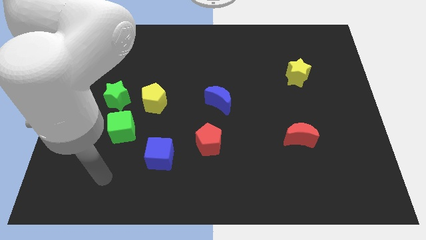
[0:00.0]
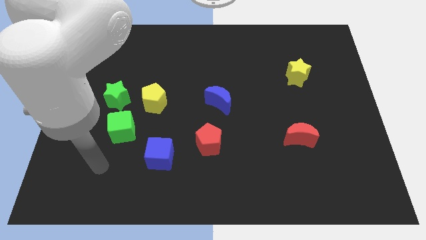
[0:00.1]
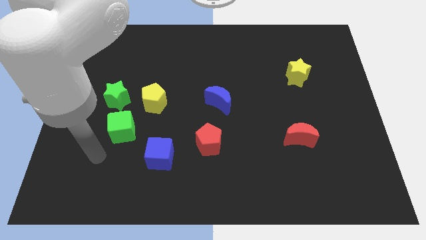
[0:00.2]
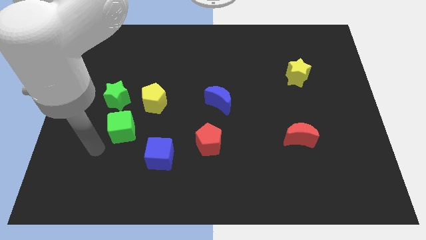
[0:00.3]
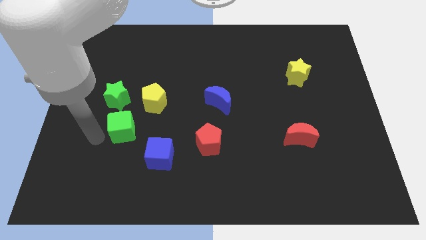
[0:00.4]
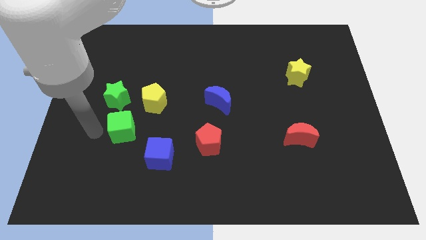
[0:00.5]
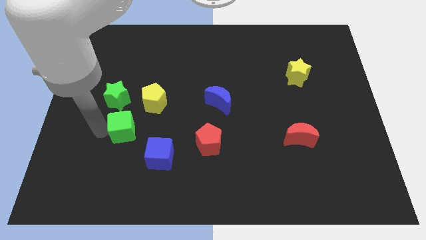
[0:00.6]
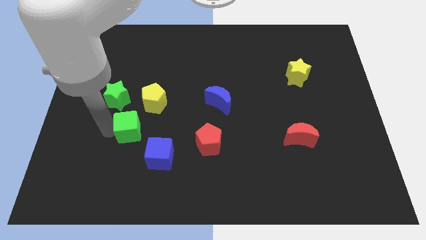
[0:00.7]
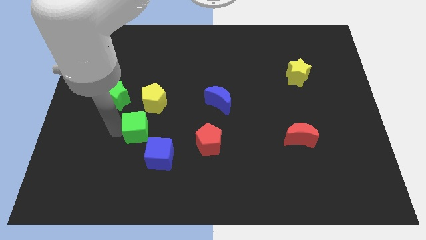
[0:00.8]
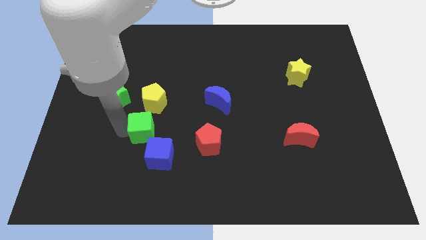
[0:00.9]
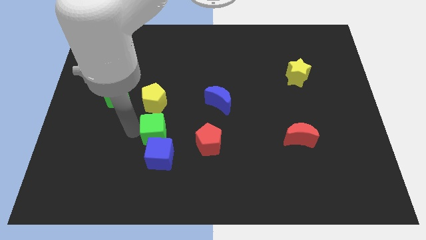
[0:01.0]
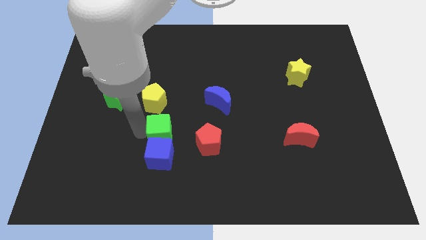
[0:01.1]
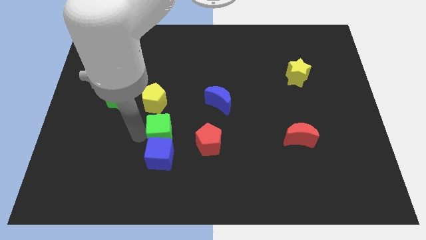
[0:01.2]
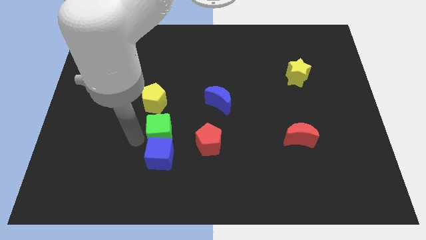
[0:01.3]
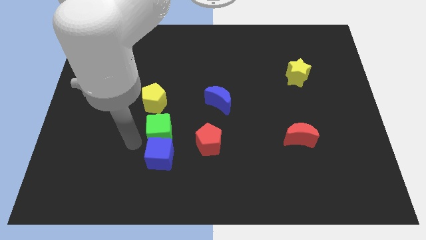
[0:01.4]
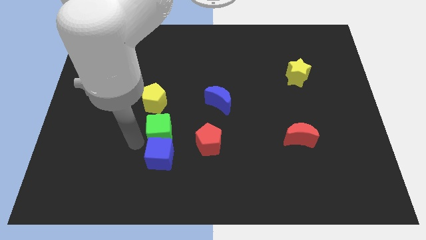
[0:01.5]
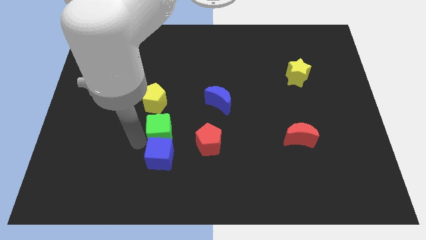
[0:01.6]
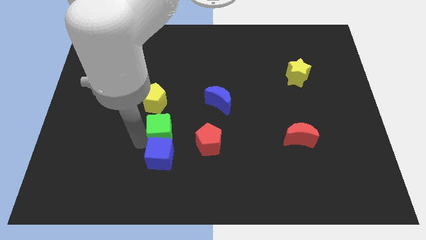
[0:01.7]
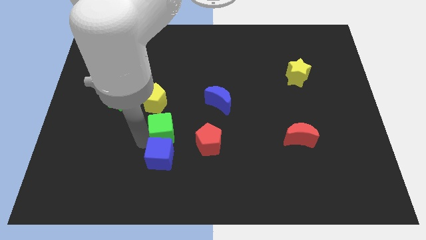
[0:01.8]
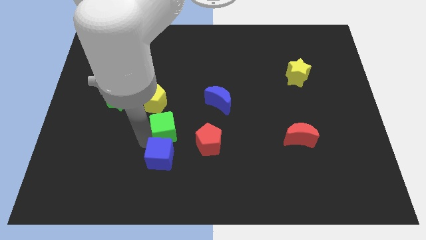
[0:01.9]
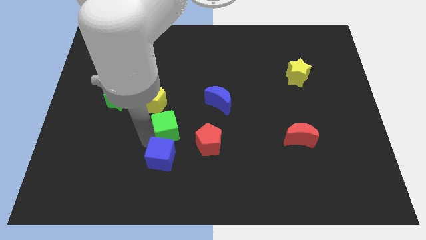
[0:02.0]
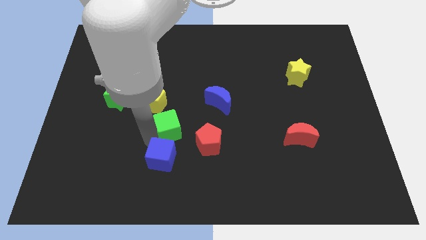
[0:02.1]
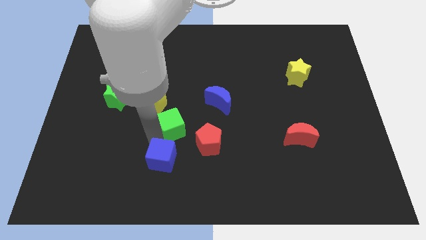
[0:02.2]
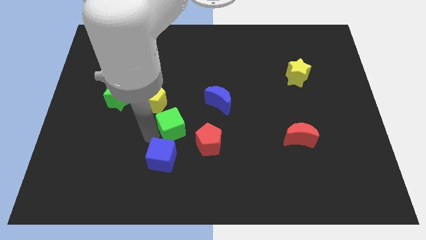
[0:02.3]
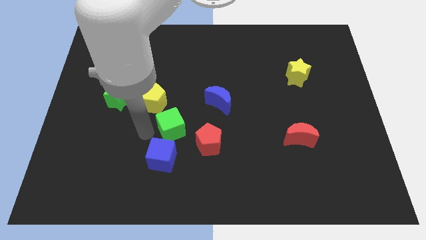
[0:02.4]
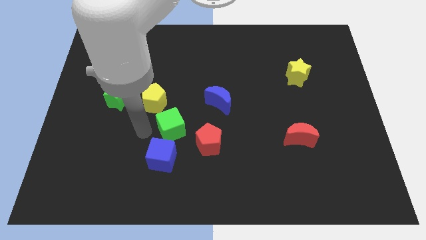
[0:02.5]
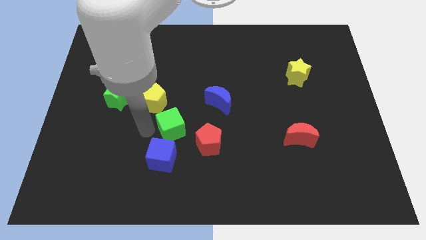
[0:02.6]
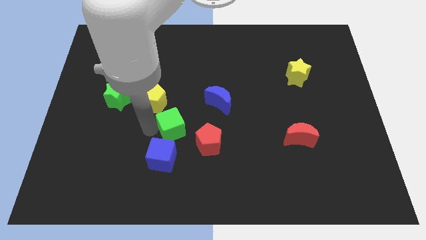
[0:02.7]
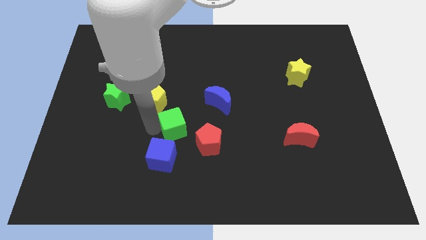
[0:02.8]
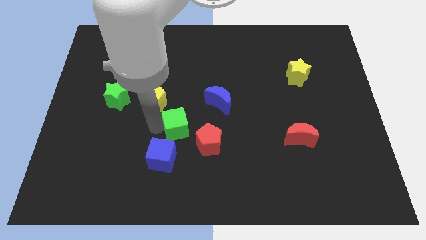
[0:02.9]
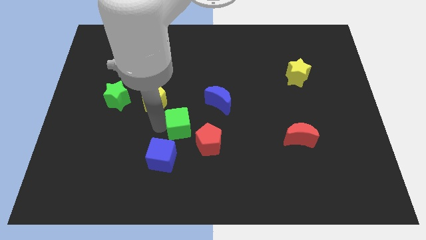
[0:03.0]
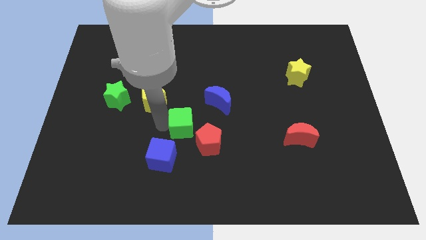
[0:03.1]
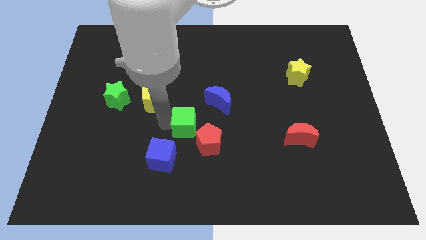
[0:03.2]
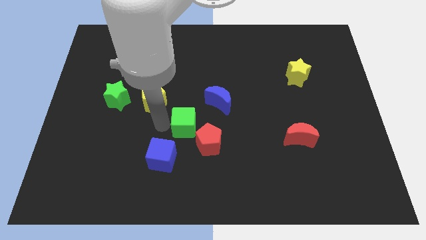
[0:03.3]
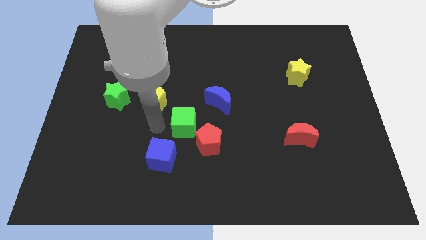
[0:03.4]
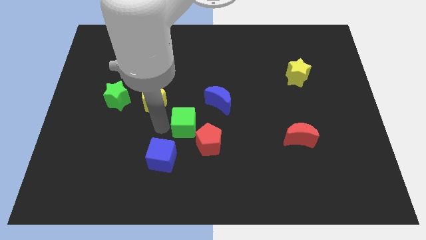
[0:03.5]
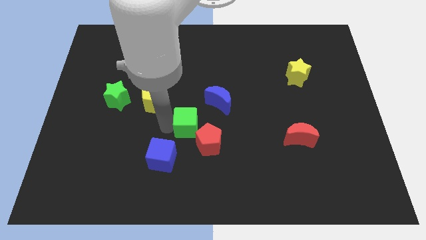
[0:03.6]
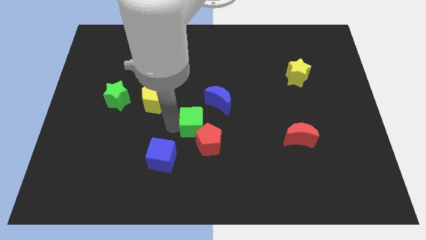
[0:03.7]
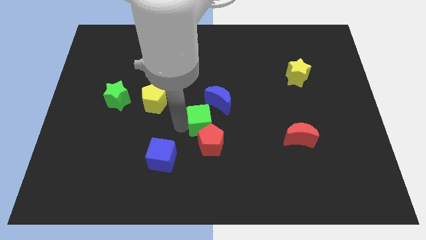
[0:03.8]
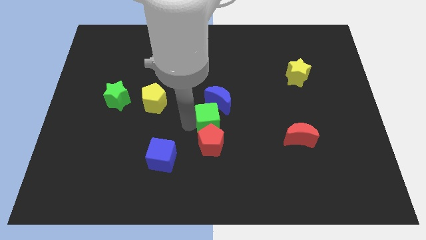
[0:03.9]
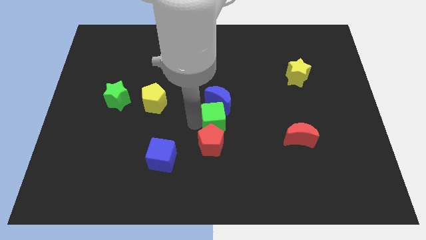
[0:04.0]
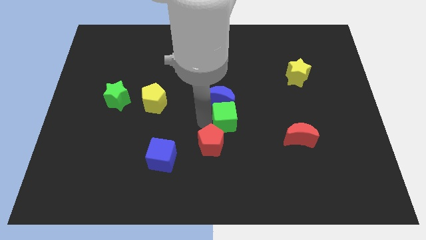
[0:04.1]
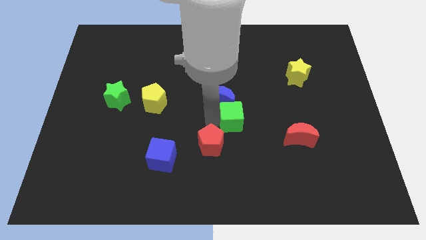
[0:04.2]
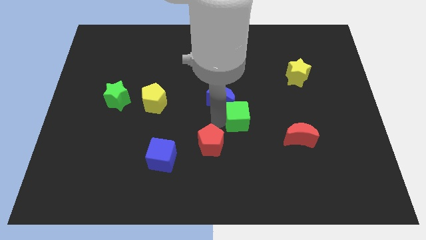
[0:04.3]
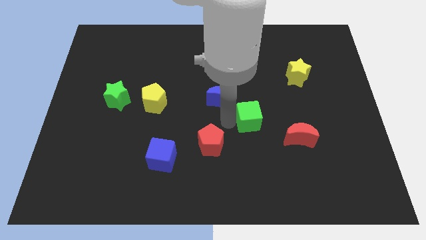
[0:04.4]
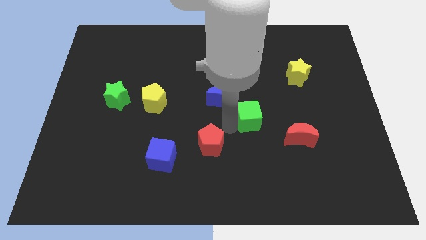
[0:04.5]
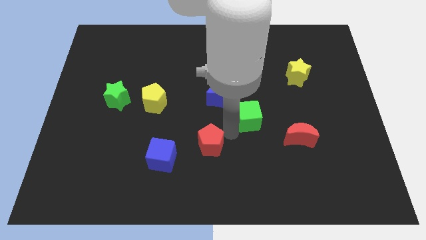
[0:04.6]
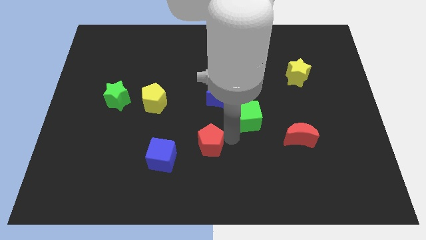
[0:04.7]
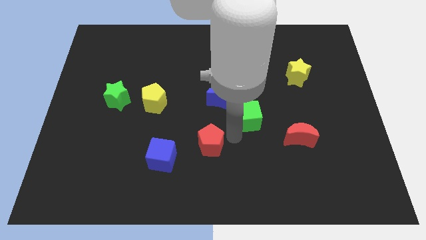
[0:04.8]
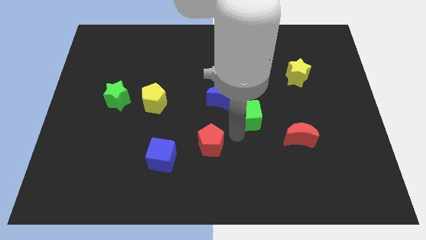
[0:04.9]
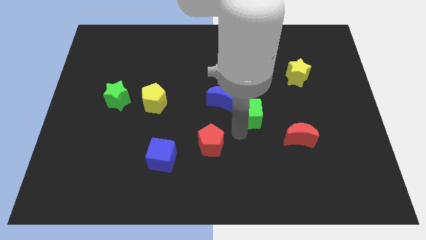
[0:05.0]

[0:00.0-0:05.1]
move the green cube to the right of the blue moon
